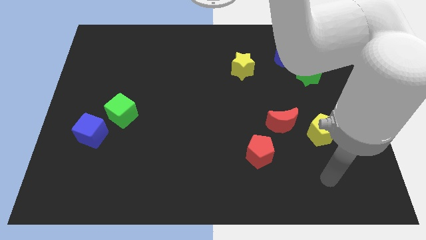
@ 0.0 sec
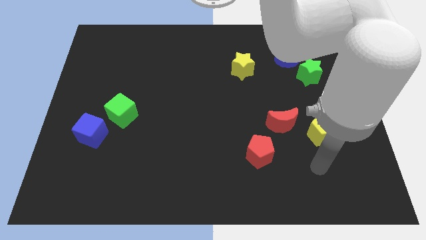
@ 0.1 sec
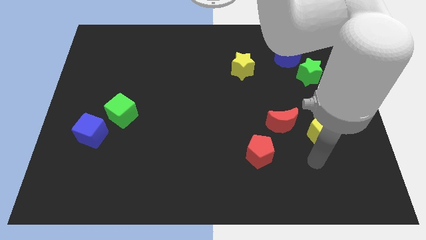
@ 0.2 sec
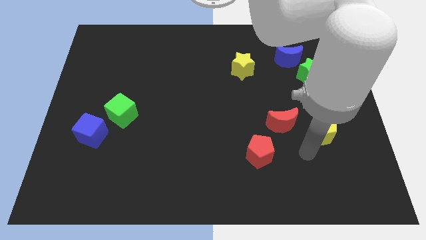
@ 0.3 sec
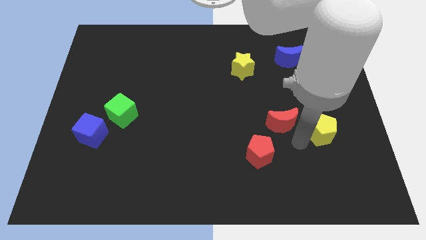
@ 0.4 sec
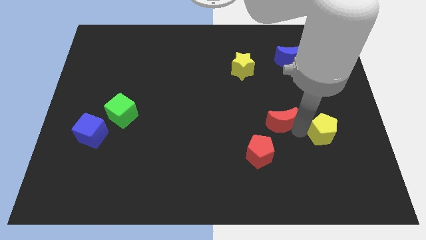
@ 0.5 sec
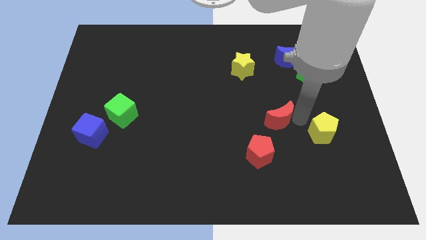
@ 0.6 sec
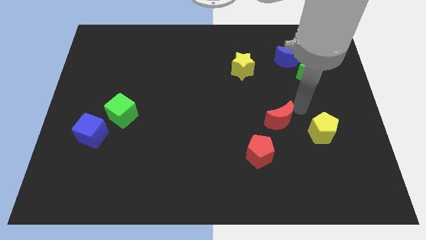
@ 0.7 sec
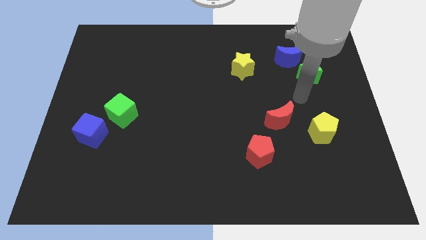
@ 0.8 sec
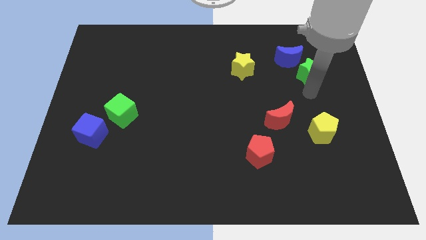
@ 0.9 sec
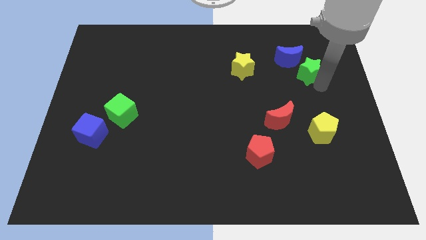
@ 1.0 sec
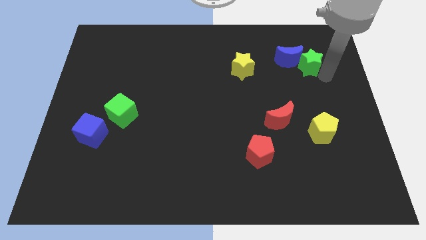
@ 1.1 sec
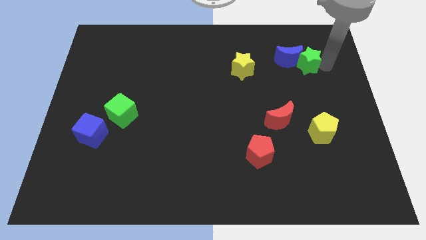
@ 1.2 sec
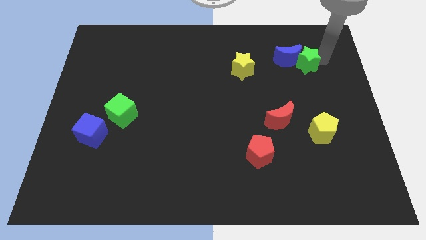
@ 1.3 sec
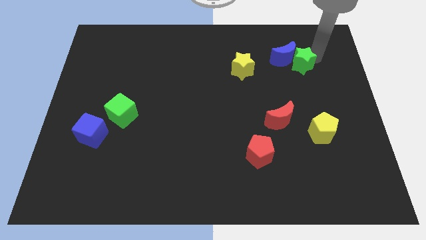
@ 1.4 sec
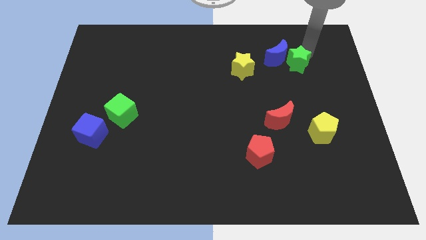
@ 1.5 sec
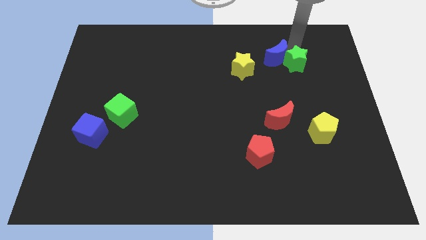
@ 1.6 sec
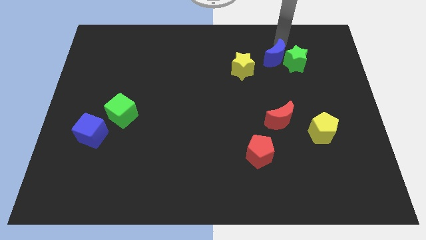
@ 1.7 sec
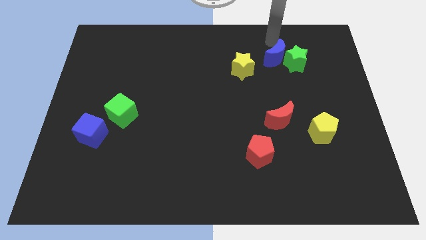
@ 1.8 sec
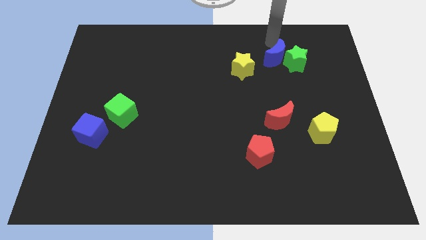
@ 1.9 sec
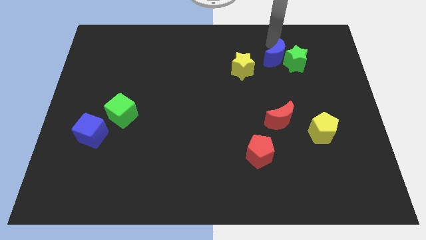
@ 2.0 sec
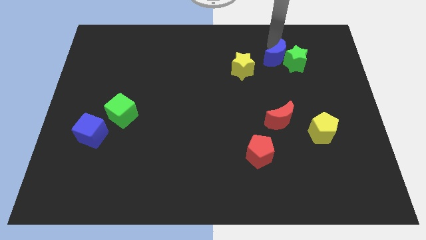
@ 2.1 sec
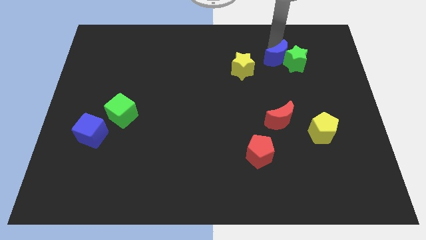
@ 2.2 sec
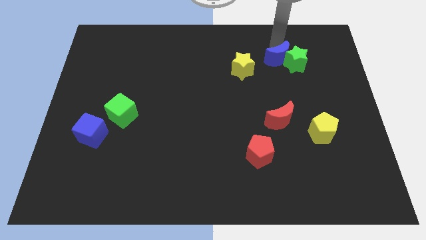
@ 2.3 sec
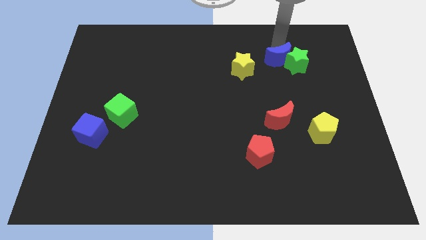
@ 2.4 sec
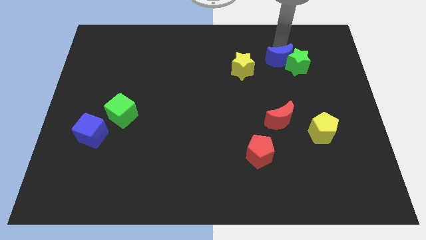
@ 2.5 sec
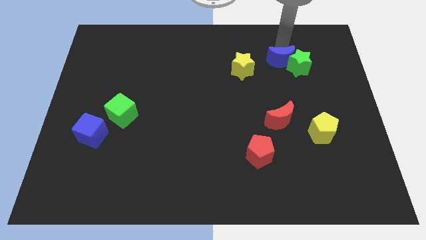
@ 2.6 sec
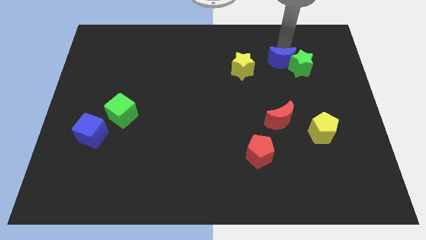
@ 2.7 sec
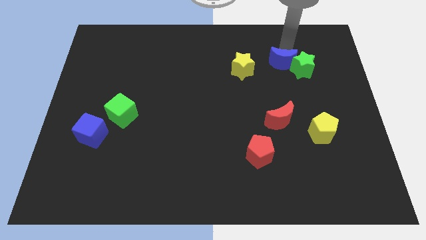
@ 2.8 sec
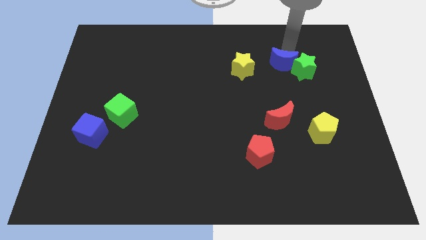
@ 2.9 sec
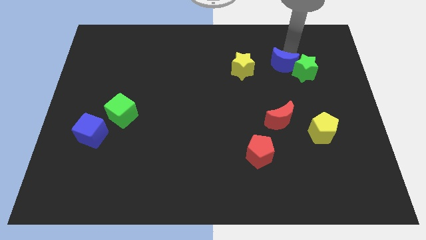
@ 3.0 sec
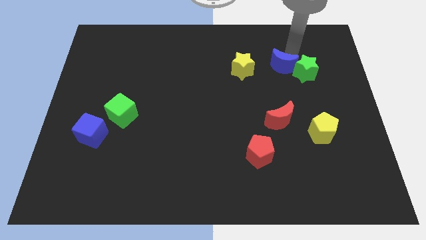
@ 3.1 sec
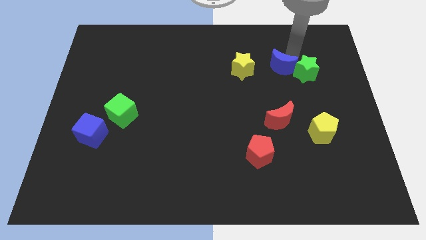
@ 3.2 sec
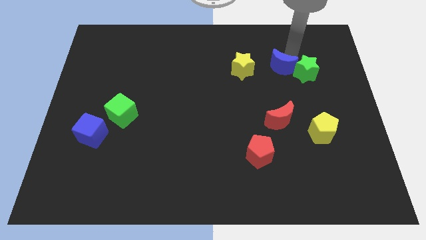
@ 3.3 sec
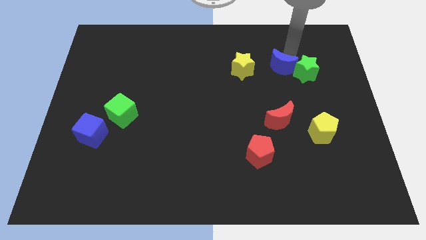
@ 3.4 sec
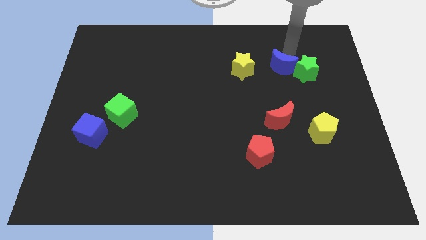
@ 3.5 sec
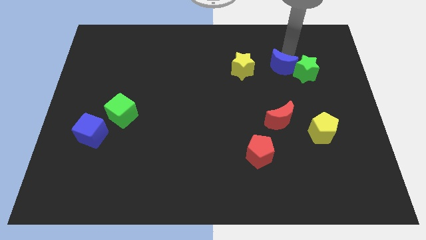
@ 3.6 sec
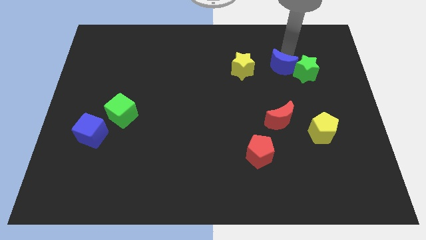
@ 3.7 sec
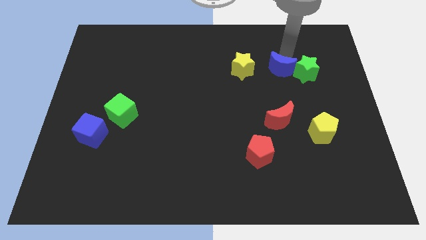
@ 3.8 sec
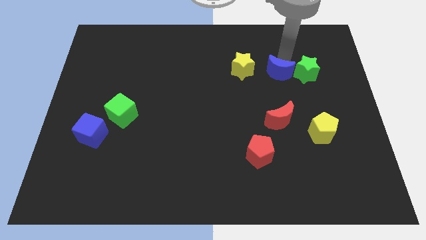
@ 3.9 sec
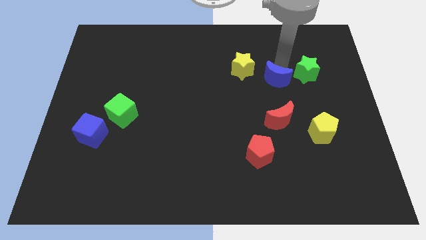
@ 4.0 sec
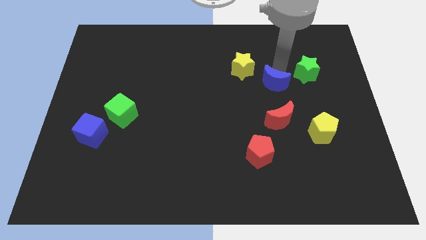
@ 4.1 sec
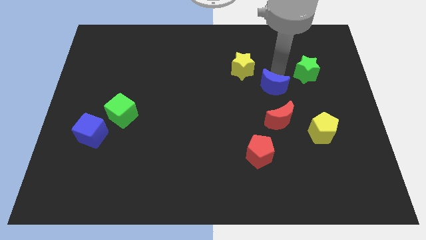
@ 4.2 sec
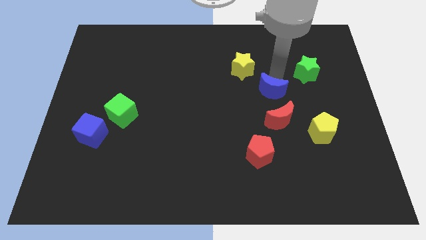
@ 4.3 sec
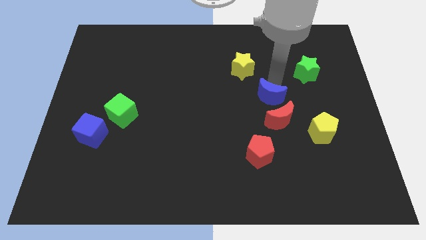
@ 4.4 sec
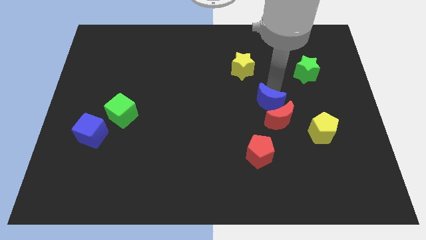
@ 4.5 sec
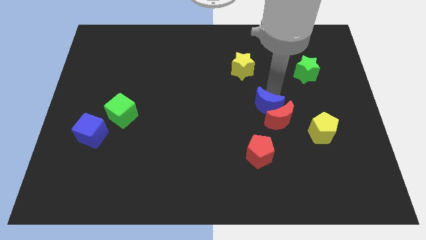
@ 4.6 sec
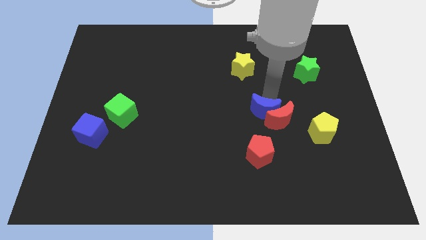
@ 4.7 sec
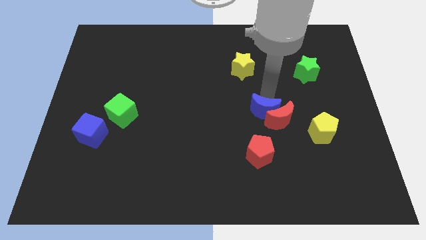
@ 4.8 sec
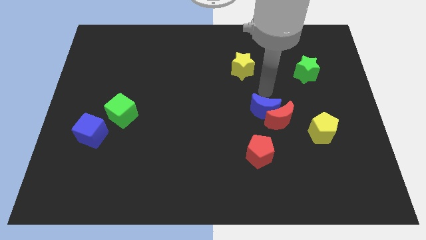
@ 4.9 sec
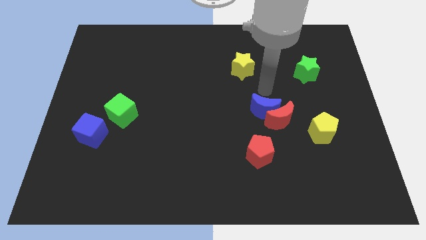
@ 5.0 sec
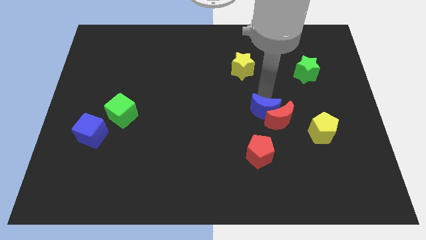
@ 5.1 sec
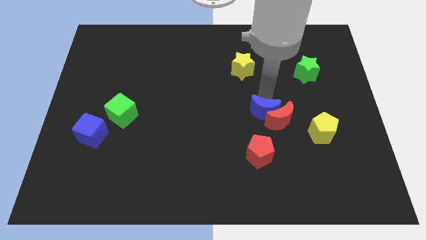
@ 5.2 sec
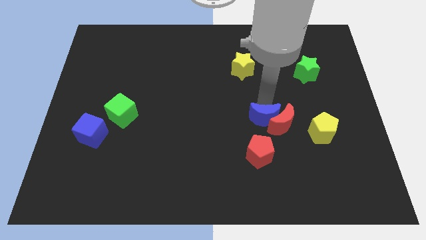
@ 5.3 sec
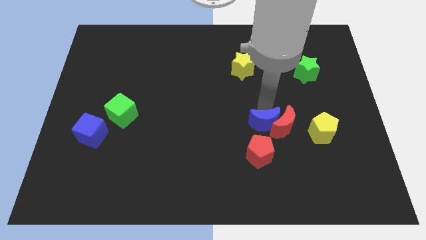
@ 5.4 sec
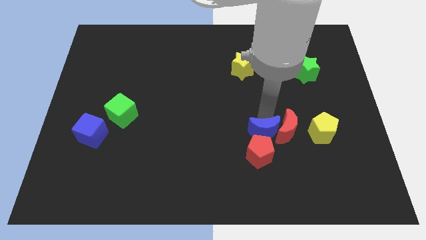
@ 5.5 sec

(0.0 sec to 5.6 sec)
slide the blue moon close to the red pentagon

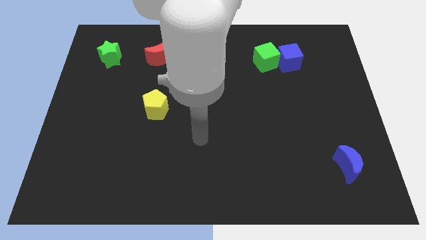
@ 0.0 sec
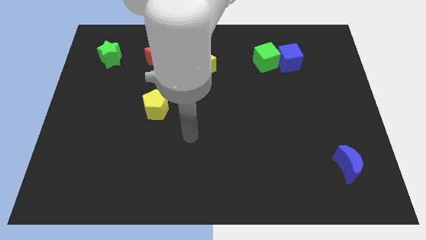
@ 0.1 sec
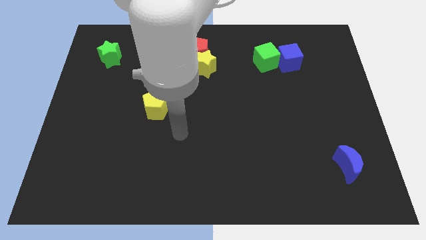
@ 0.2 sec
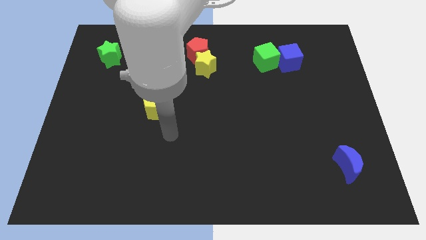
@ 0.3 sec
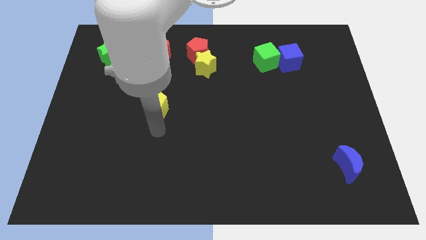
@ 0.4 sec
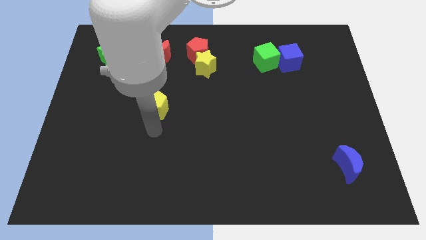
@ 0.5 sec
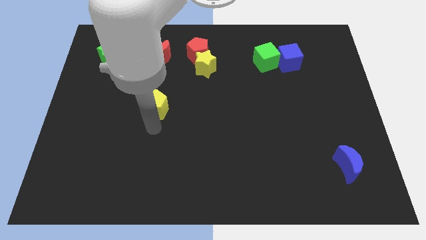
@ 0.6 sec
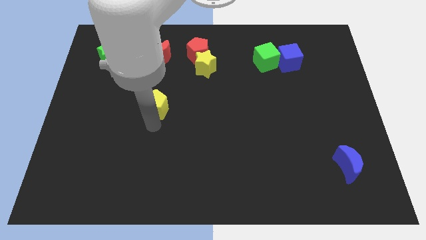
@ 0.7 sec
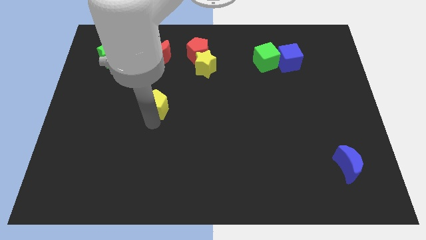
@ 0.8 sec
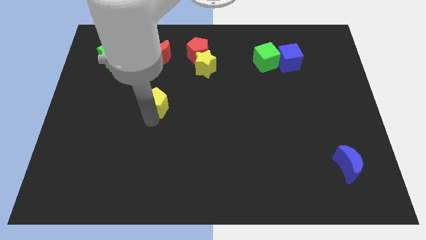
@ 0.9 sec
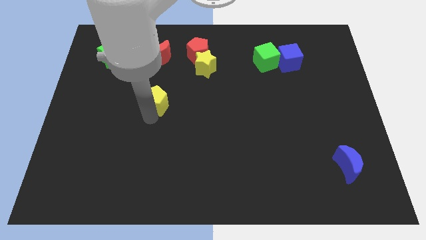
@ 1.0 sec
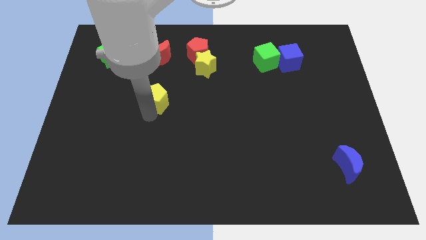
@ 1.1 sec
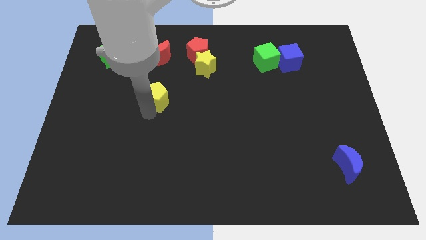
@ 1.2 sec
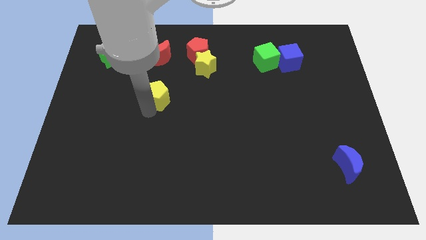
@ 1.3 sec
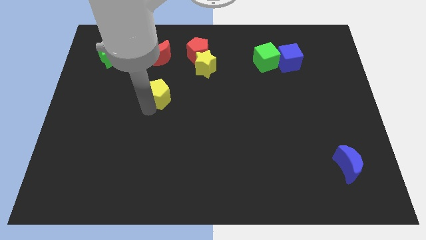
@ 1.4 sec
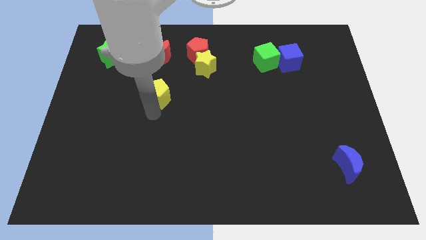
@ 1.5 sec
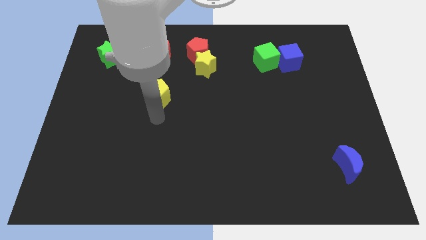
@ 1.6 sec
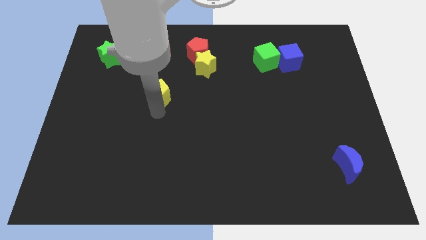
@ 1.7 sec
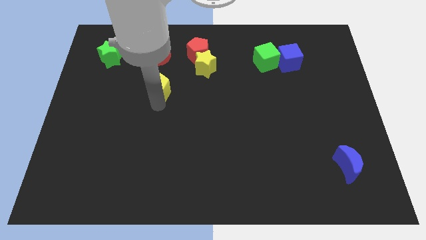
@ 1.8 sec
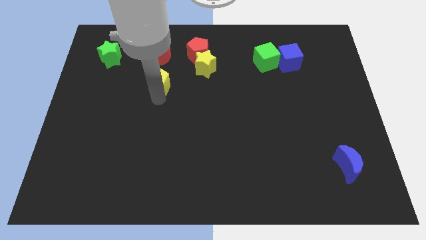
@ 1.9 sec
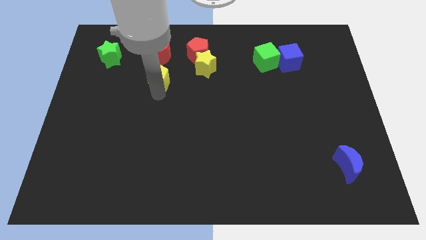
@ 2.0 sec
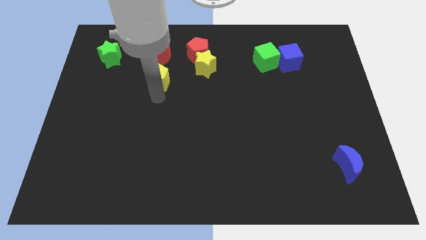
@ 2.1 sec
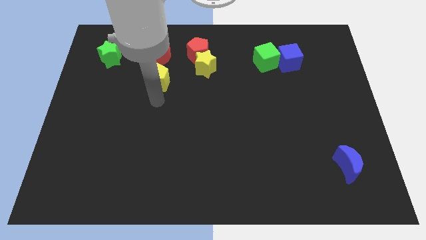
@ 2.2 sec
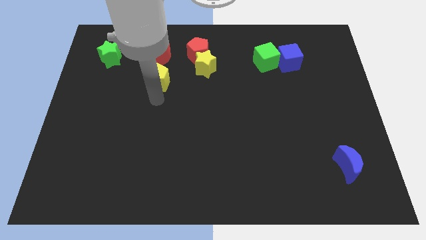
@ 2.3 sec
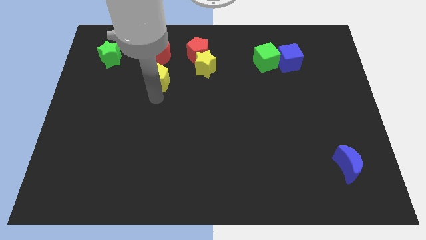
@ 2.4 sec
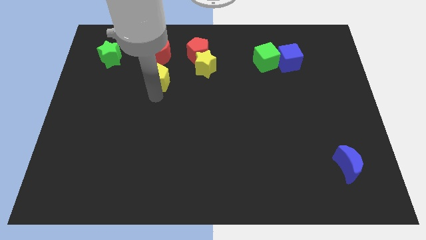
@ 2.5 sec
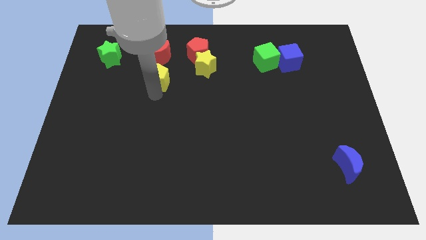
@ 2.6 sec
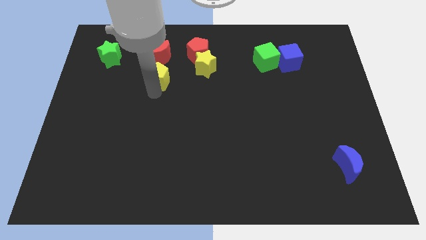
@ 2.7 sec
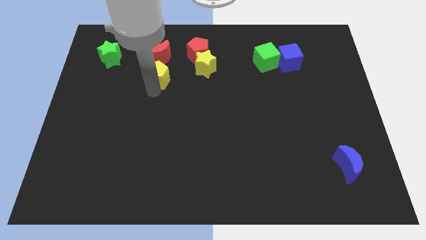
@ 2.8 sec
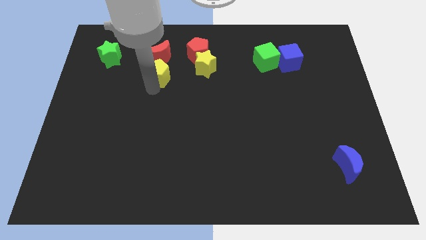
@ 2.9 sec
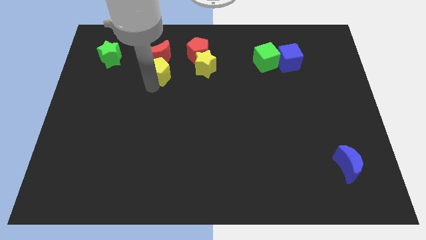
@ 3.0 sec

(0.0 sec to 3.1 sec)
put the yellow pentagon to the red moon
